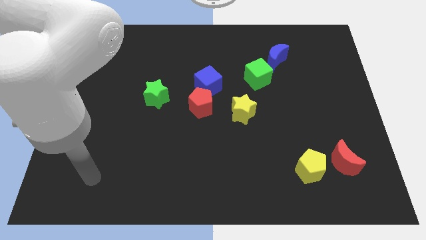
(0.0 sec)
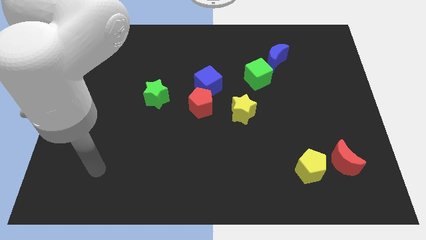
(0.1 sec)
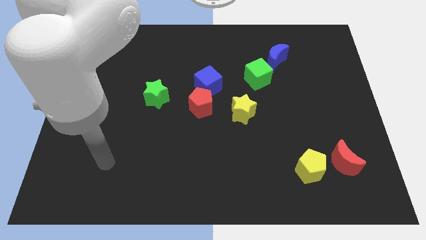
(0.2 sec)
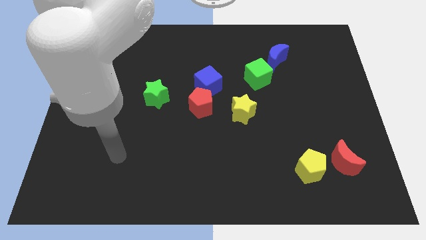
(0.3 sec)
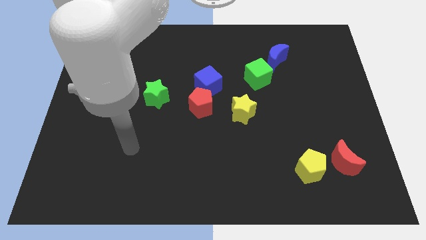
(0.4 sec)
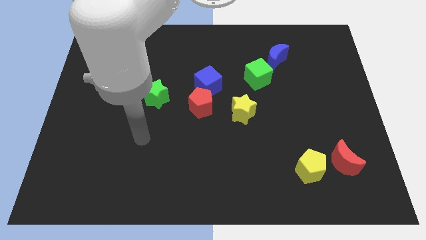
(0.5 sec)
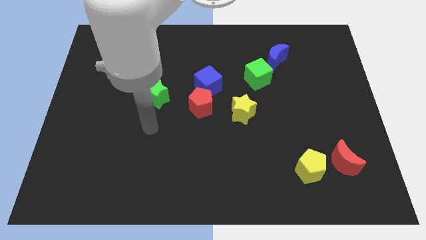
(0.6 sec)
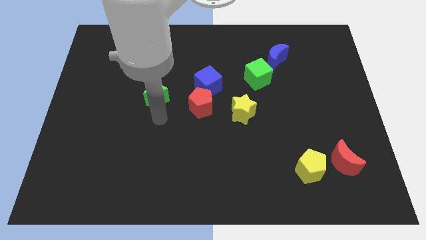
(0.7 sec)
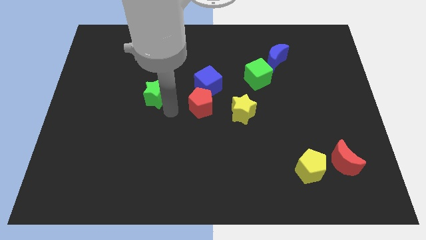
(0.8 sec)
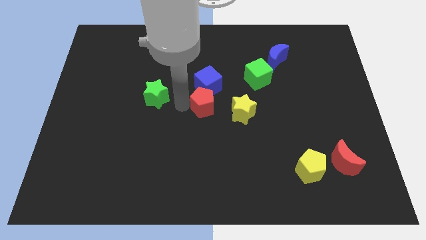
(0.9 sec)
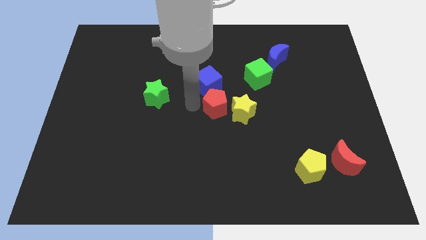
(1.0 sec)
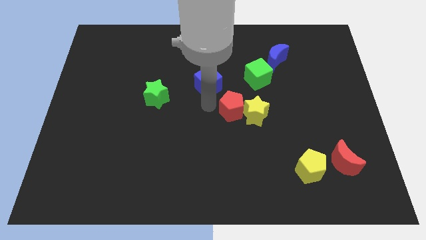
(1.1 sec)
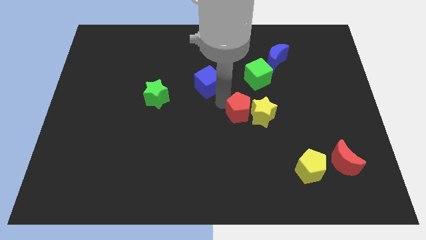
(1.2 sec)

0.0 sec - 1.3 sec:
pull the blue cube apart from the red pentagon

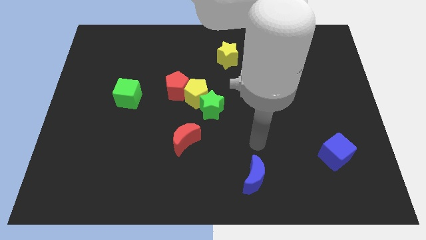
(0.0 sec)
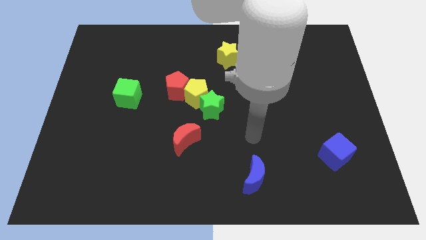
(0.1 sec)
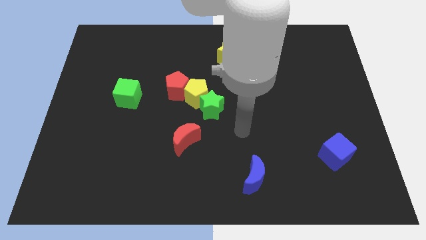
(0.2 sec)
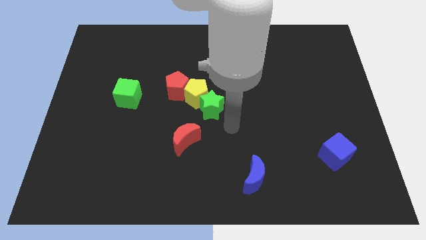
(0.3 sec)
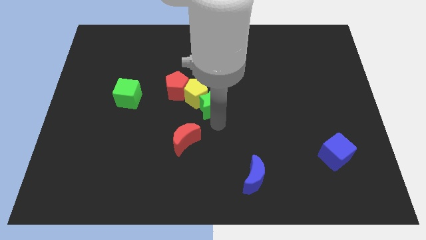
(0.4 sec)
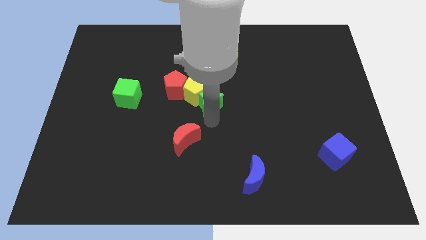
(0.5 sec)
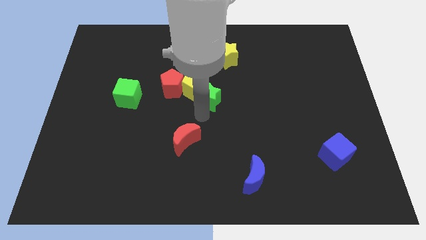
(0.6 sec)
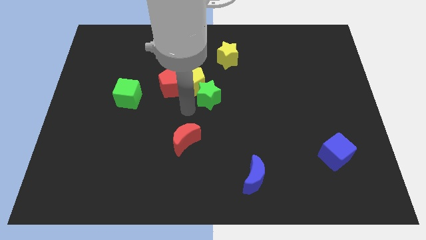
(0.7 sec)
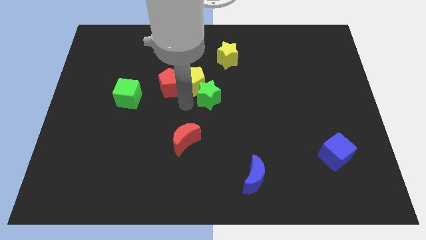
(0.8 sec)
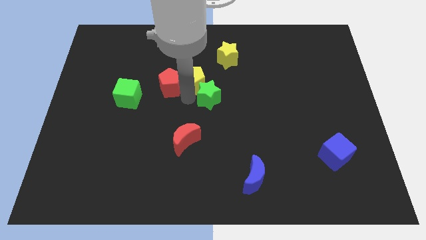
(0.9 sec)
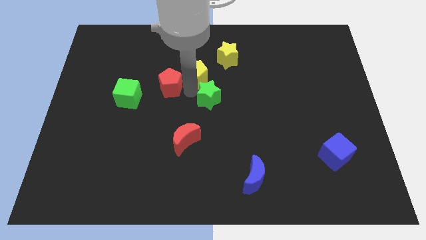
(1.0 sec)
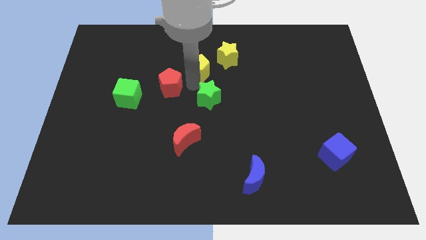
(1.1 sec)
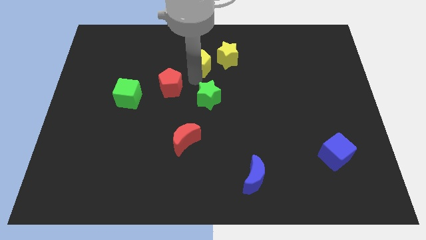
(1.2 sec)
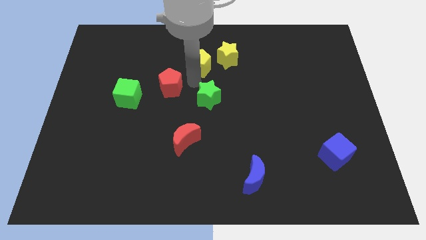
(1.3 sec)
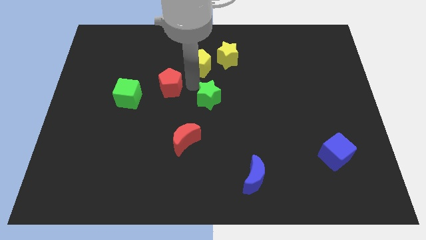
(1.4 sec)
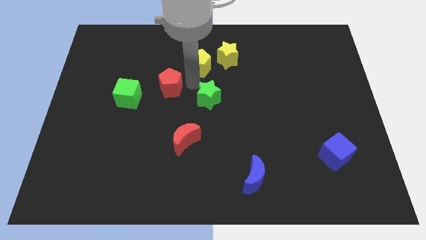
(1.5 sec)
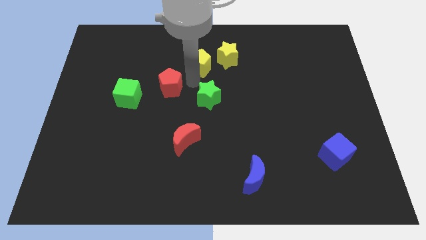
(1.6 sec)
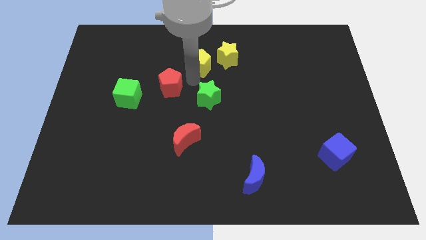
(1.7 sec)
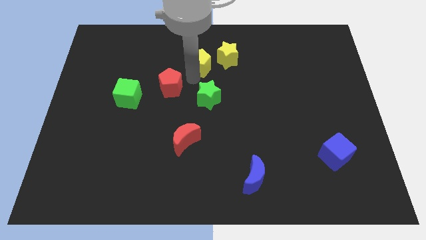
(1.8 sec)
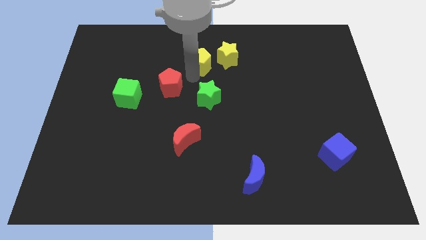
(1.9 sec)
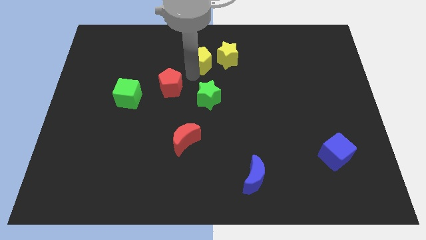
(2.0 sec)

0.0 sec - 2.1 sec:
separate the yellow pentagon from the red pentagon and green star

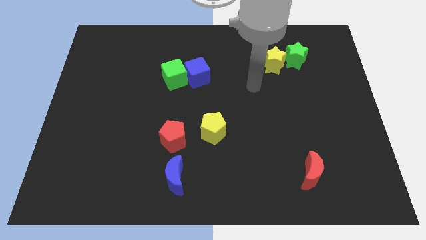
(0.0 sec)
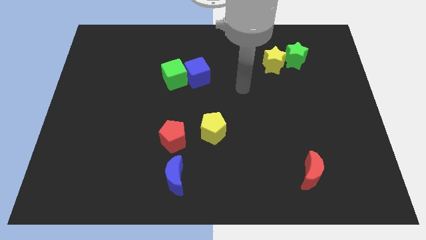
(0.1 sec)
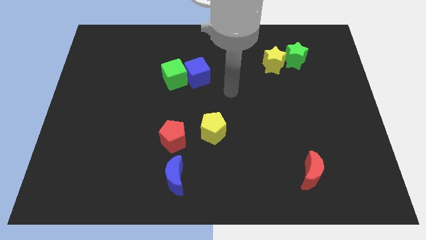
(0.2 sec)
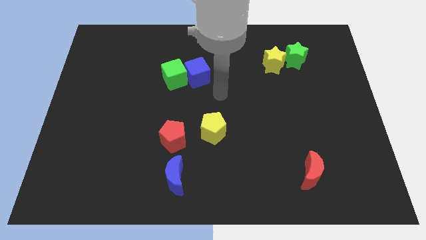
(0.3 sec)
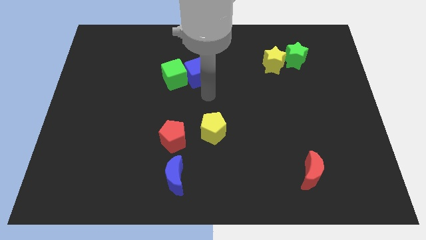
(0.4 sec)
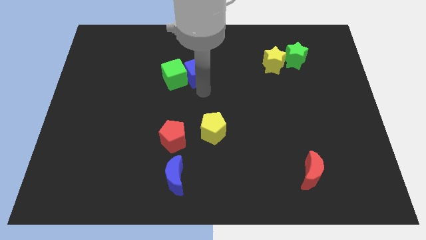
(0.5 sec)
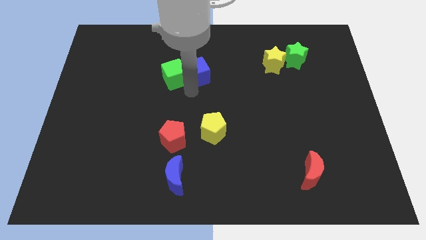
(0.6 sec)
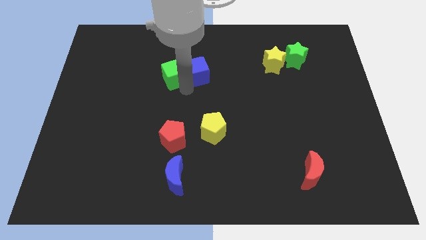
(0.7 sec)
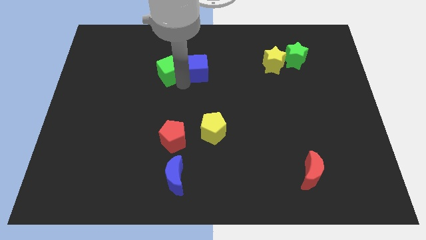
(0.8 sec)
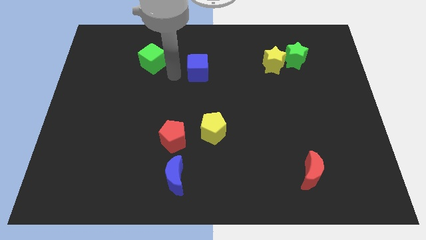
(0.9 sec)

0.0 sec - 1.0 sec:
separate the blue cube from the green cube

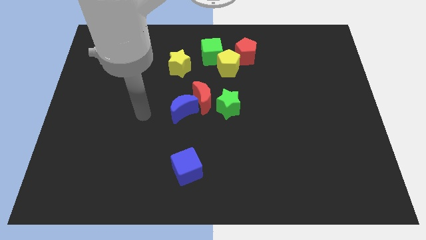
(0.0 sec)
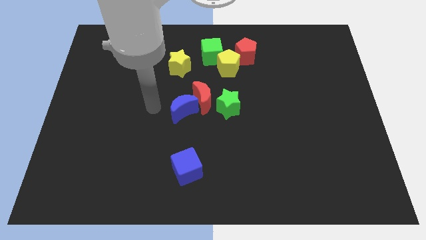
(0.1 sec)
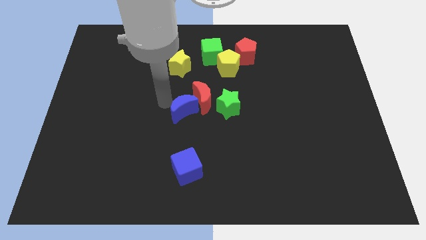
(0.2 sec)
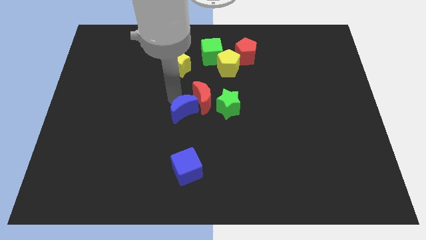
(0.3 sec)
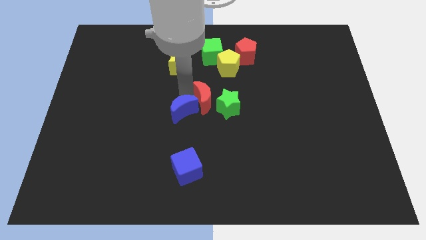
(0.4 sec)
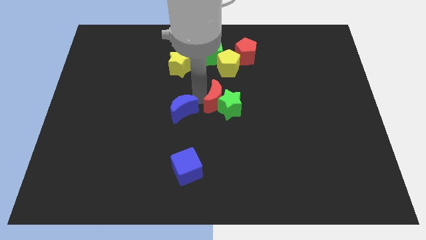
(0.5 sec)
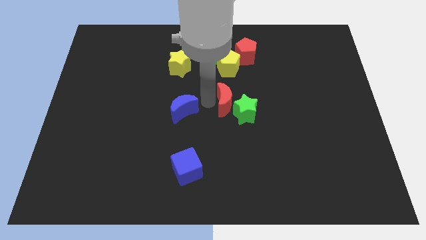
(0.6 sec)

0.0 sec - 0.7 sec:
pull the blue moon apart from the red moon

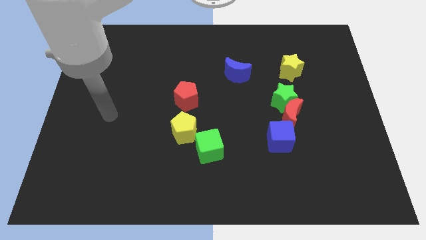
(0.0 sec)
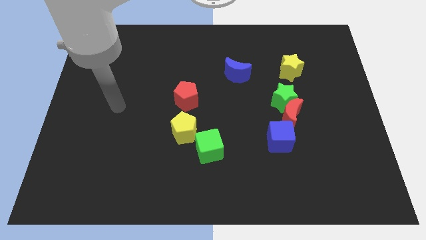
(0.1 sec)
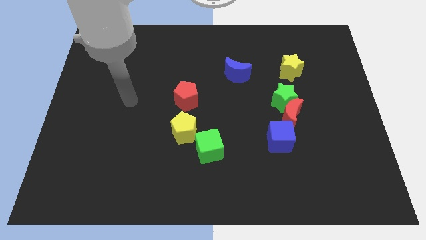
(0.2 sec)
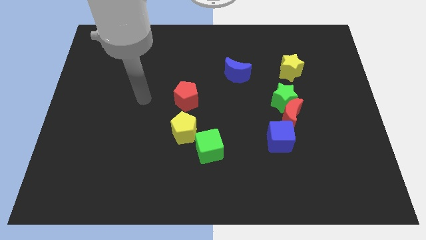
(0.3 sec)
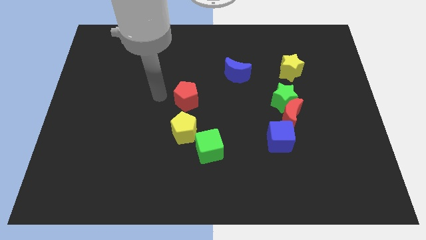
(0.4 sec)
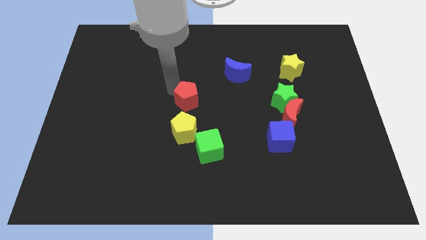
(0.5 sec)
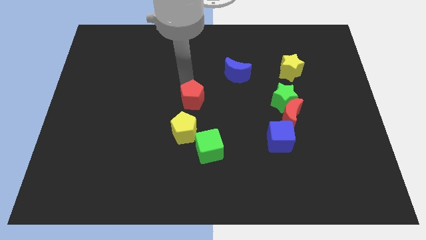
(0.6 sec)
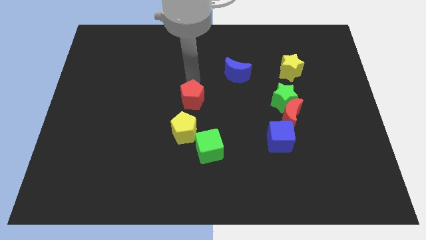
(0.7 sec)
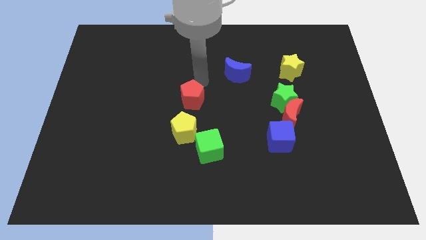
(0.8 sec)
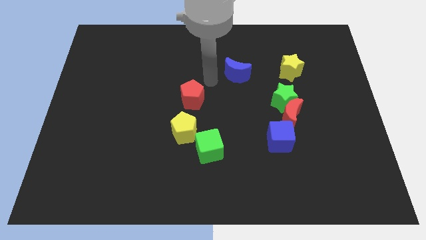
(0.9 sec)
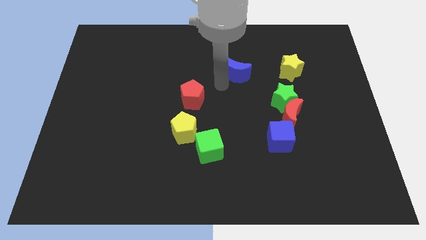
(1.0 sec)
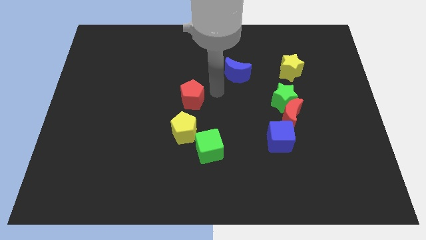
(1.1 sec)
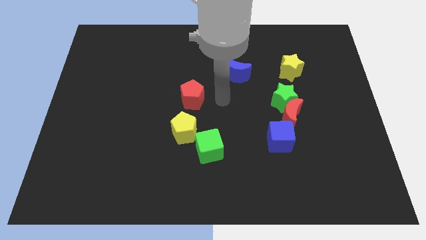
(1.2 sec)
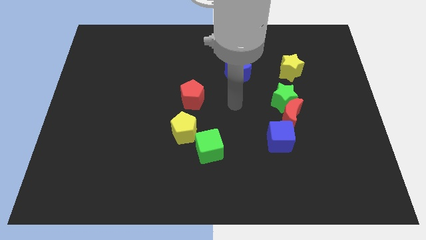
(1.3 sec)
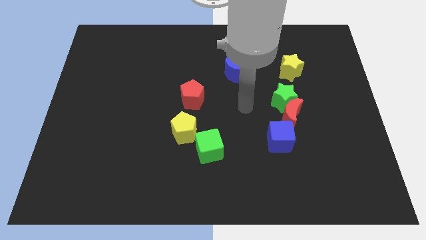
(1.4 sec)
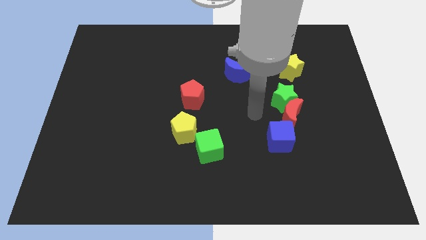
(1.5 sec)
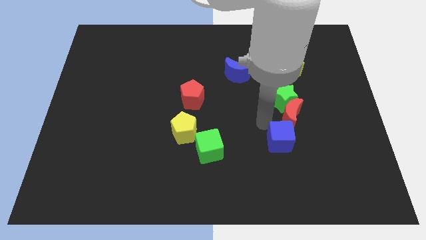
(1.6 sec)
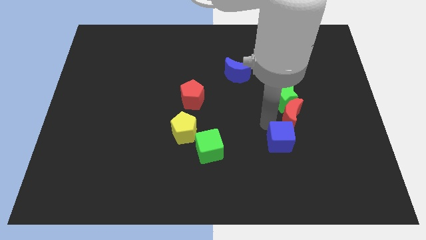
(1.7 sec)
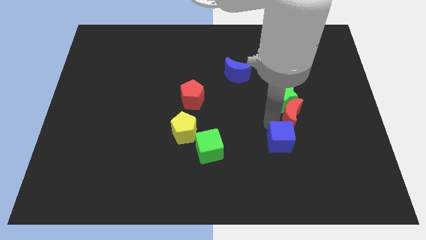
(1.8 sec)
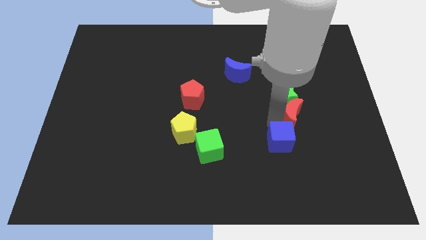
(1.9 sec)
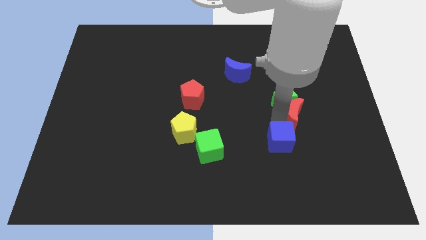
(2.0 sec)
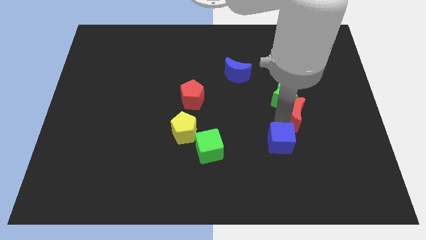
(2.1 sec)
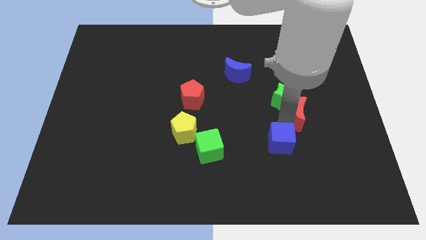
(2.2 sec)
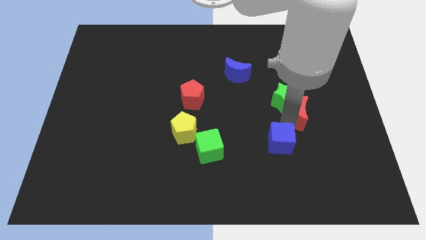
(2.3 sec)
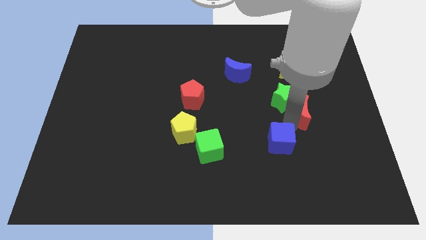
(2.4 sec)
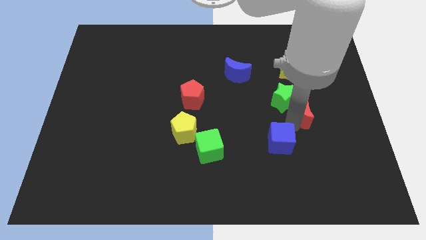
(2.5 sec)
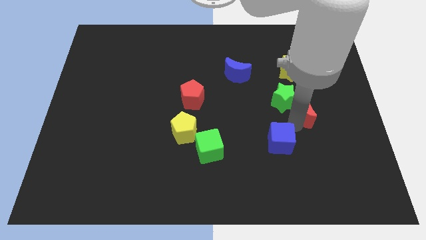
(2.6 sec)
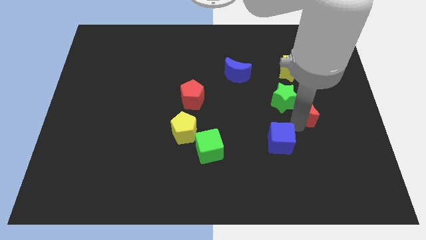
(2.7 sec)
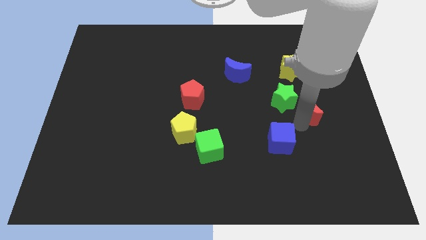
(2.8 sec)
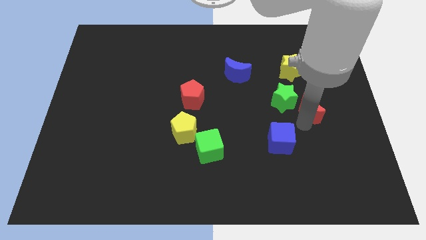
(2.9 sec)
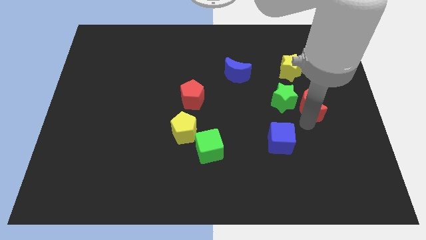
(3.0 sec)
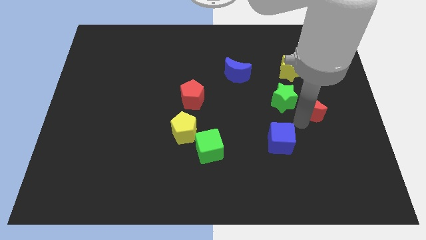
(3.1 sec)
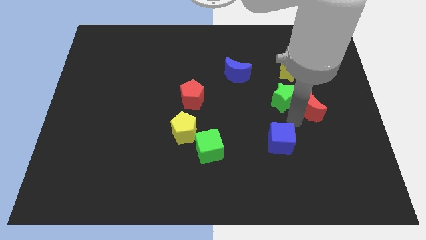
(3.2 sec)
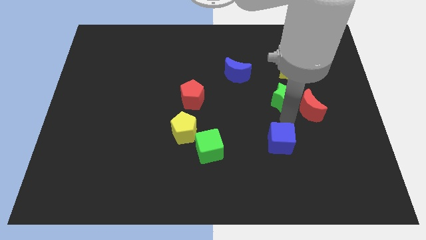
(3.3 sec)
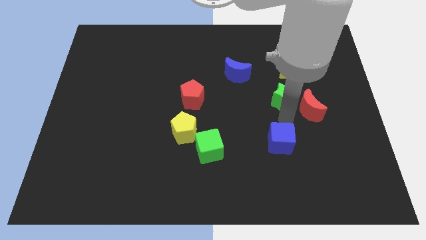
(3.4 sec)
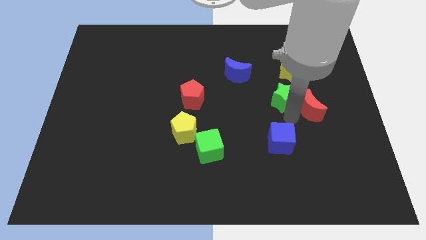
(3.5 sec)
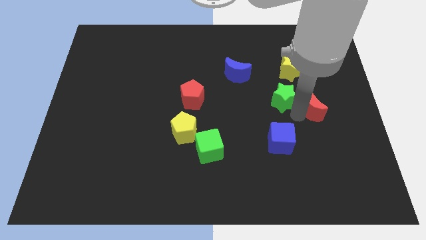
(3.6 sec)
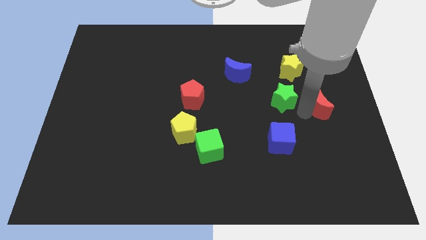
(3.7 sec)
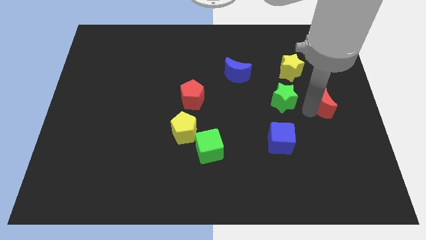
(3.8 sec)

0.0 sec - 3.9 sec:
pull the red moon apart from the green star and blue cube

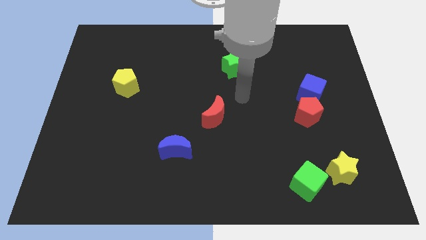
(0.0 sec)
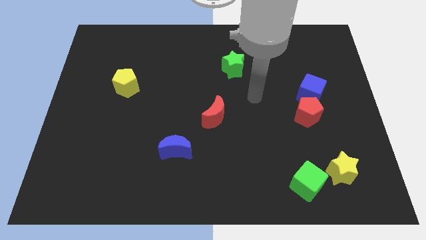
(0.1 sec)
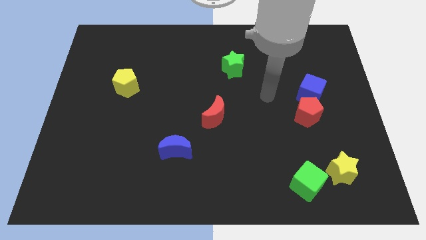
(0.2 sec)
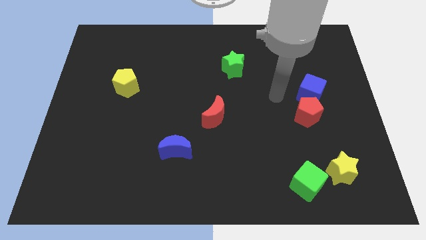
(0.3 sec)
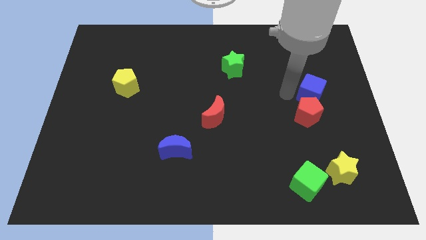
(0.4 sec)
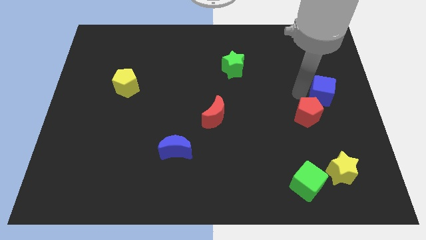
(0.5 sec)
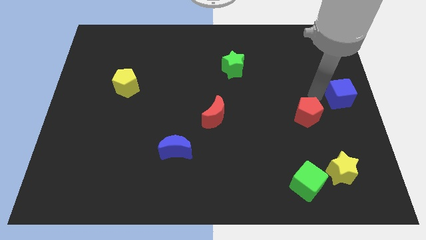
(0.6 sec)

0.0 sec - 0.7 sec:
move the red pentagon away from the blue cube
